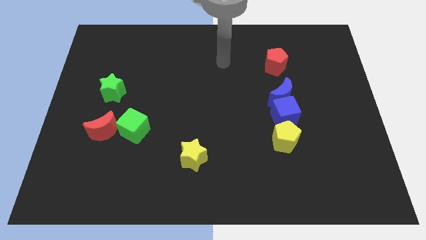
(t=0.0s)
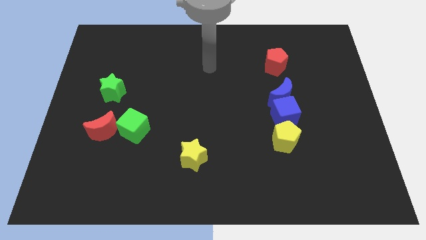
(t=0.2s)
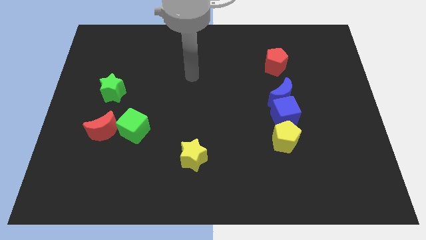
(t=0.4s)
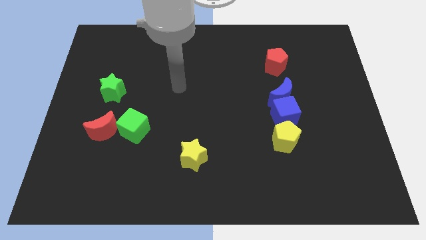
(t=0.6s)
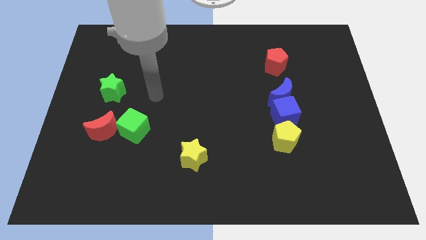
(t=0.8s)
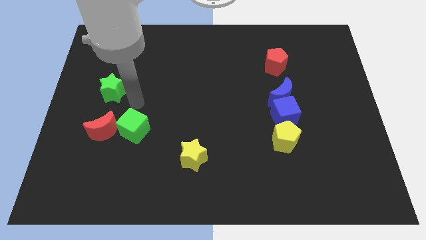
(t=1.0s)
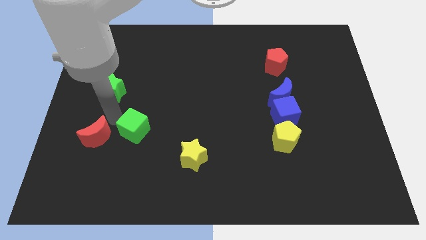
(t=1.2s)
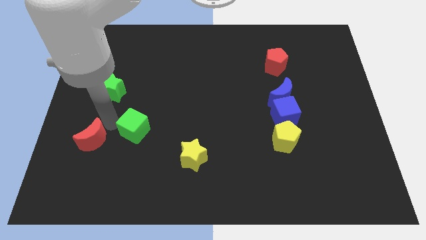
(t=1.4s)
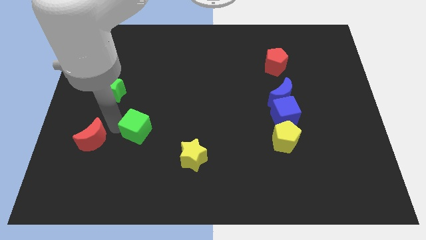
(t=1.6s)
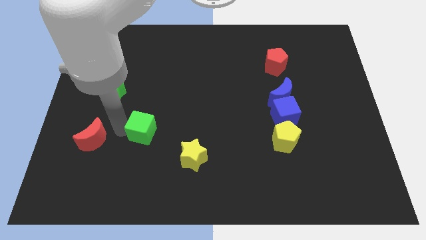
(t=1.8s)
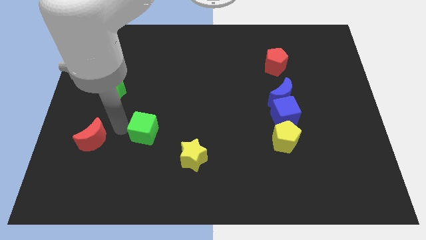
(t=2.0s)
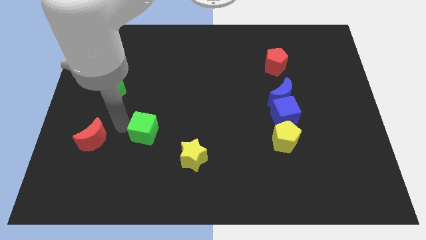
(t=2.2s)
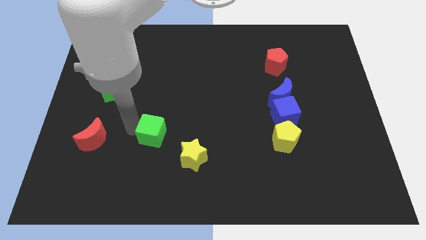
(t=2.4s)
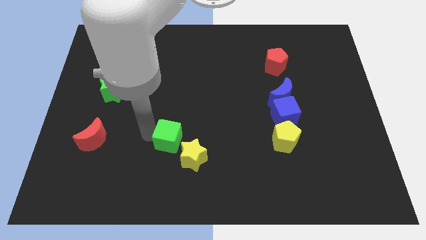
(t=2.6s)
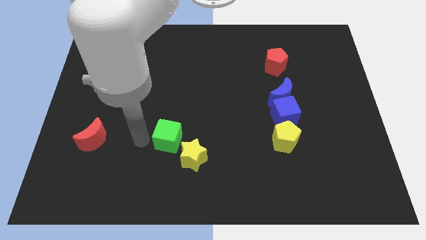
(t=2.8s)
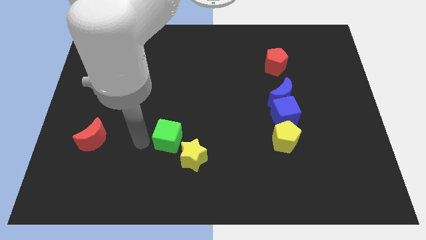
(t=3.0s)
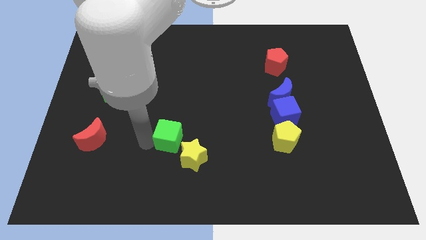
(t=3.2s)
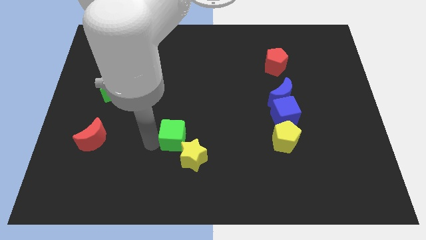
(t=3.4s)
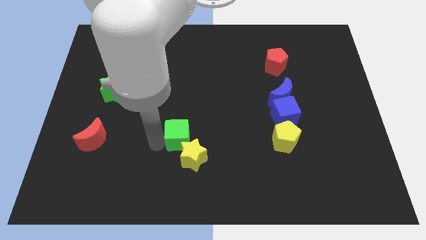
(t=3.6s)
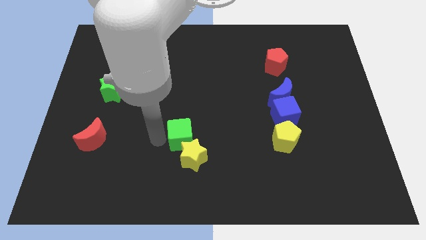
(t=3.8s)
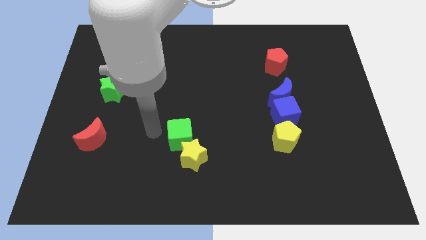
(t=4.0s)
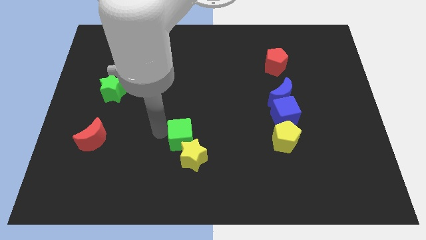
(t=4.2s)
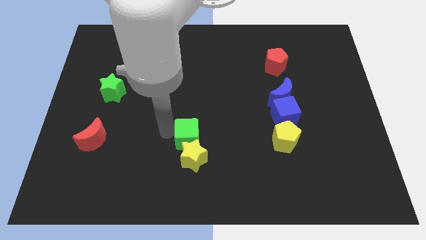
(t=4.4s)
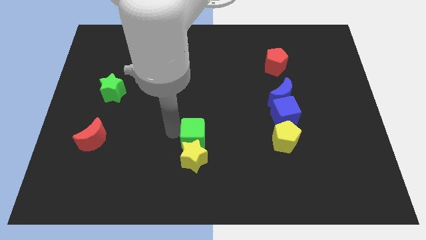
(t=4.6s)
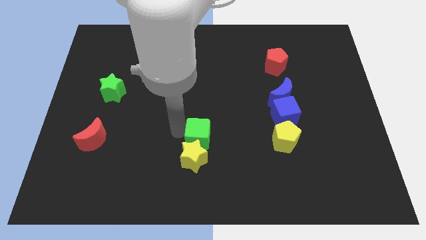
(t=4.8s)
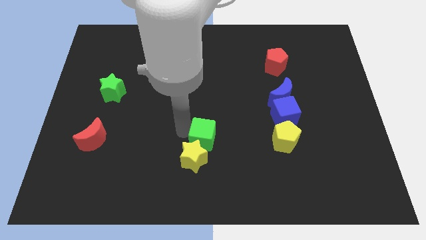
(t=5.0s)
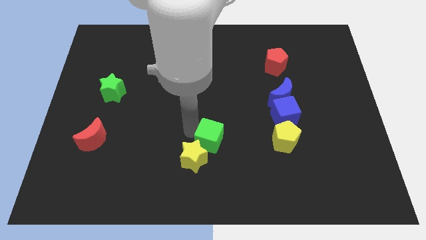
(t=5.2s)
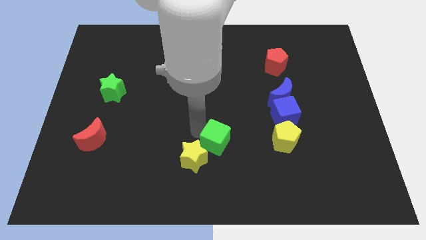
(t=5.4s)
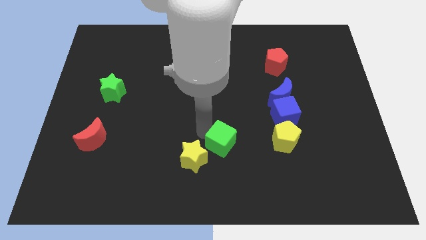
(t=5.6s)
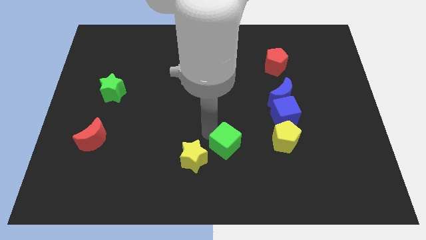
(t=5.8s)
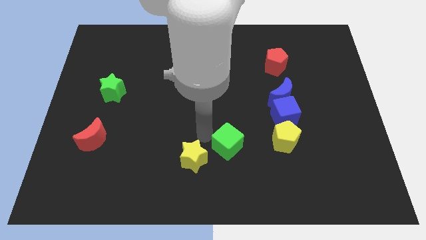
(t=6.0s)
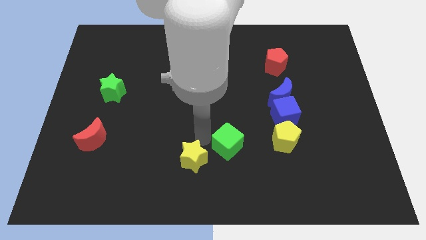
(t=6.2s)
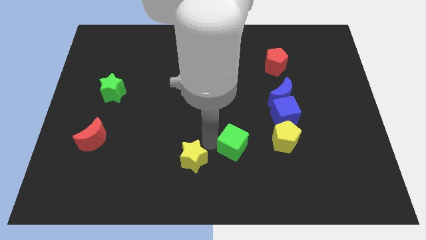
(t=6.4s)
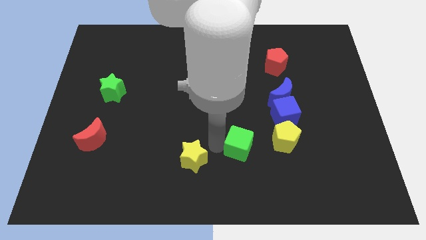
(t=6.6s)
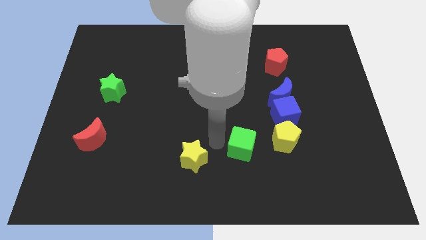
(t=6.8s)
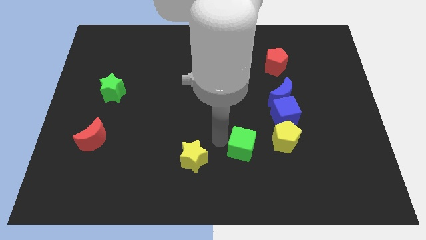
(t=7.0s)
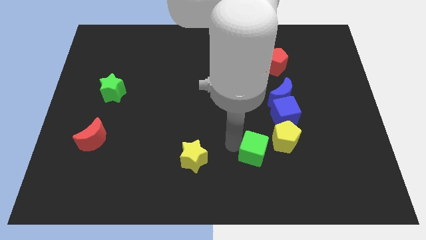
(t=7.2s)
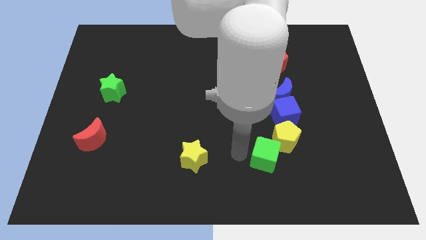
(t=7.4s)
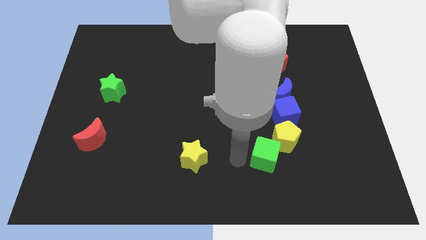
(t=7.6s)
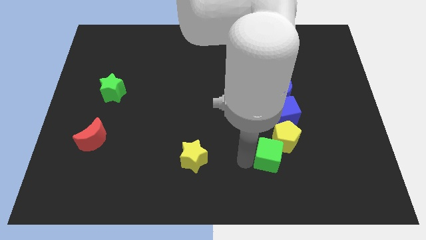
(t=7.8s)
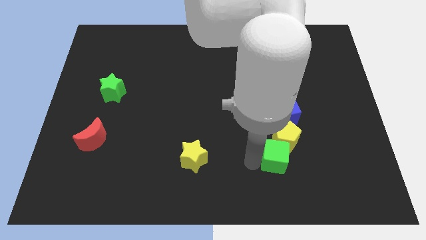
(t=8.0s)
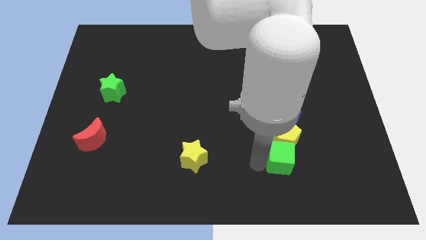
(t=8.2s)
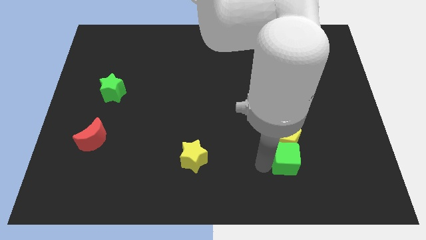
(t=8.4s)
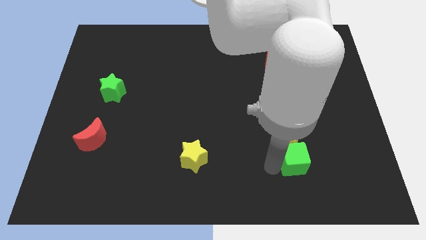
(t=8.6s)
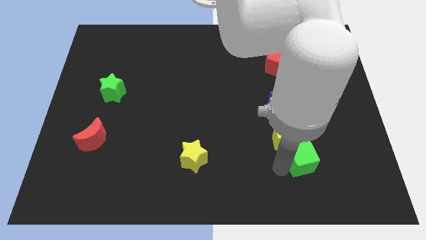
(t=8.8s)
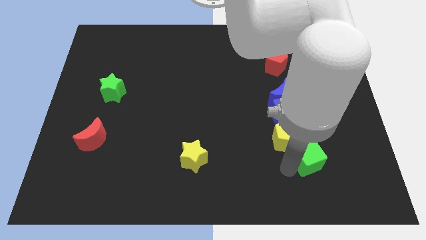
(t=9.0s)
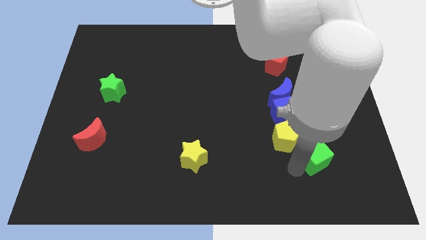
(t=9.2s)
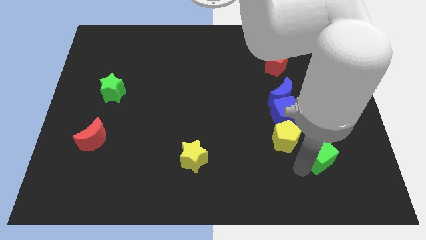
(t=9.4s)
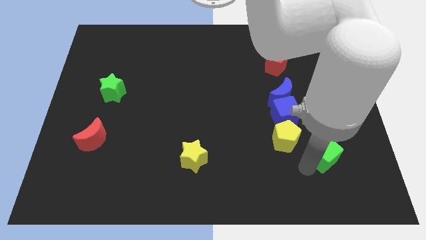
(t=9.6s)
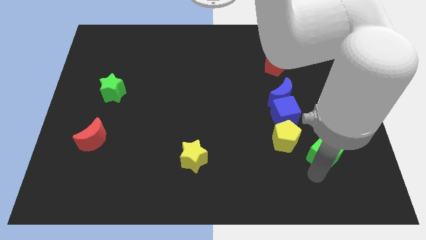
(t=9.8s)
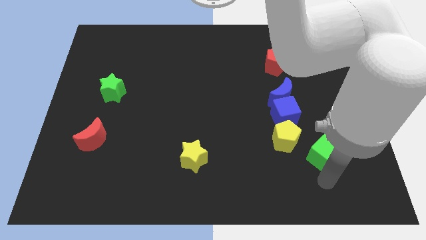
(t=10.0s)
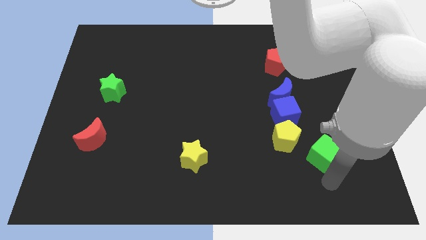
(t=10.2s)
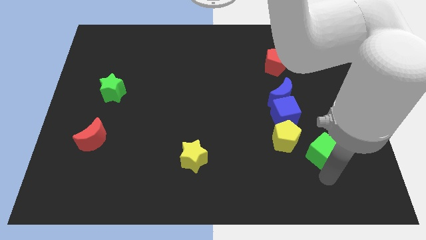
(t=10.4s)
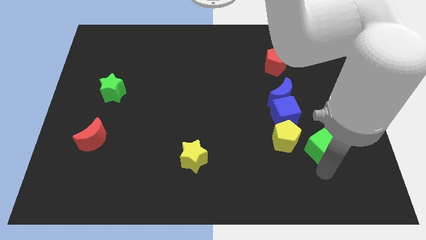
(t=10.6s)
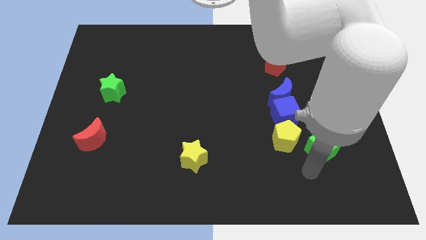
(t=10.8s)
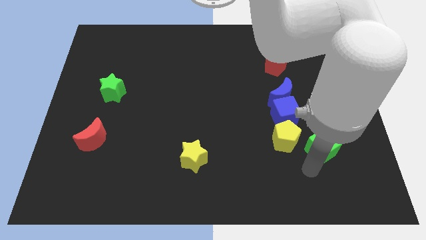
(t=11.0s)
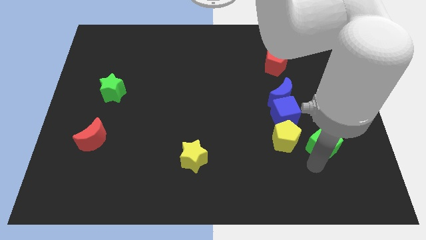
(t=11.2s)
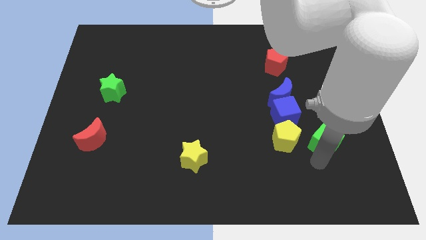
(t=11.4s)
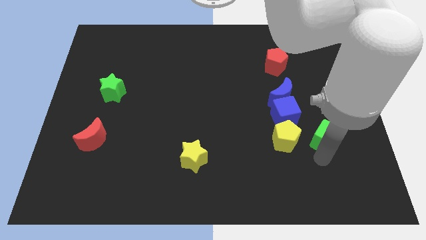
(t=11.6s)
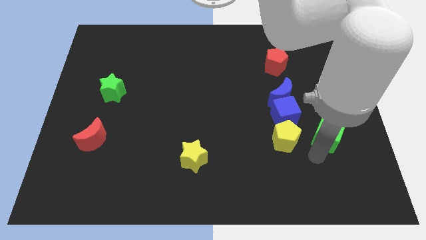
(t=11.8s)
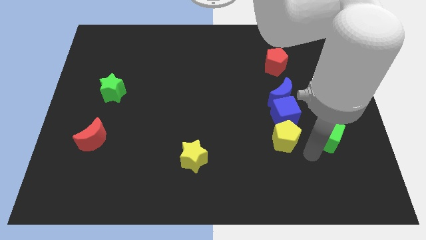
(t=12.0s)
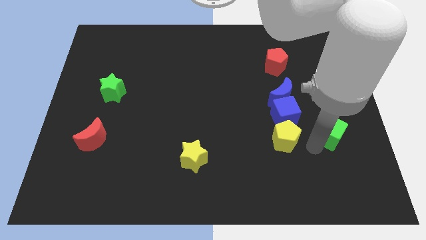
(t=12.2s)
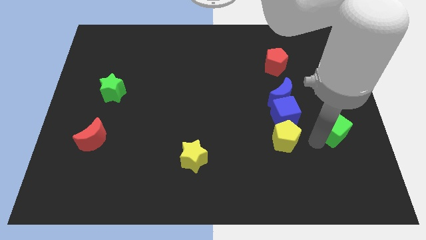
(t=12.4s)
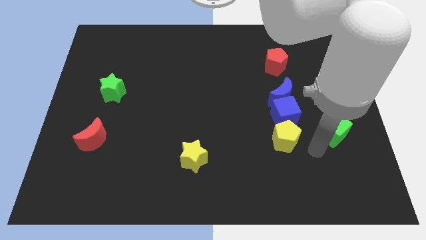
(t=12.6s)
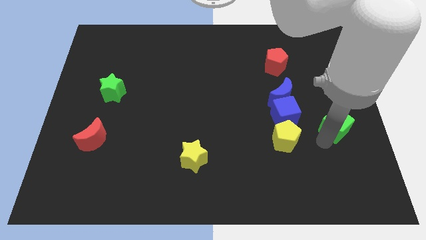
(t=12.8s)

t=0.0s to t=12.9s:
push the green cube to the right side
